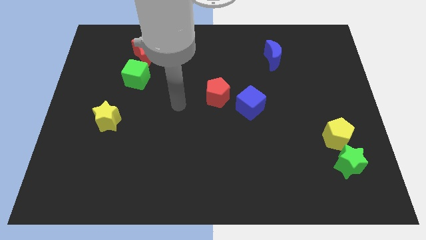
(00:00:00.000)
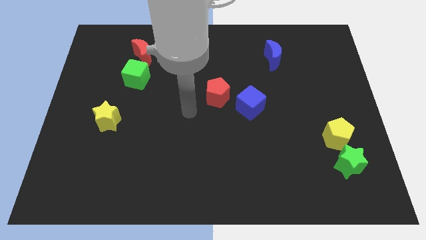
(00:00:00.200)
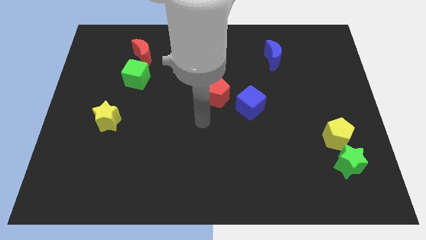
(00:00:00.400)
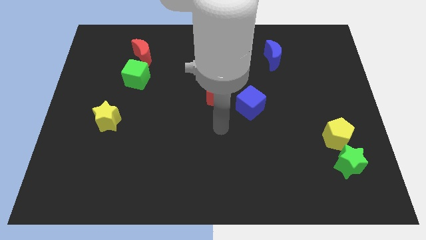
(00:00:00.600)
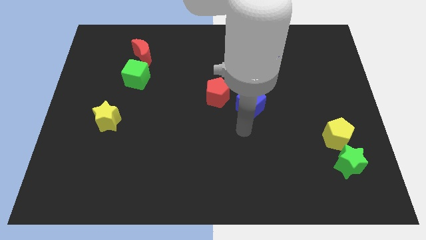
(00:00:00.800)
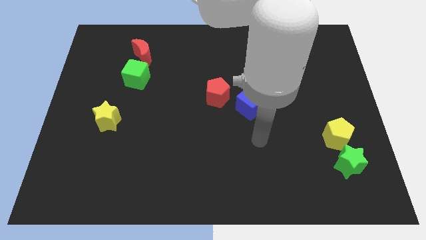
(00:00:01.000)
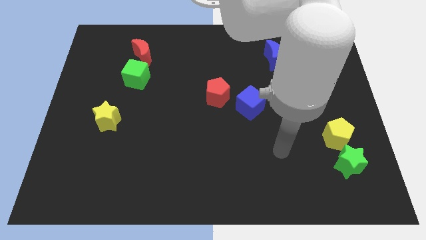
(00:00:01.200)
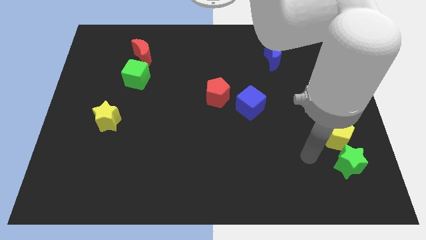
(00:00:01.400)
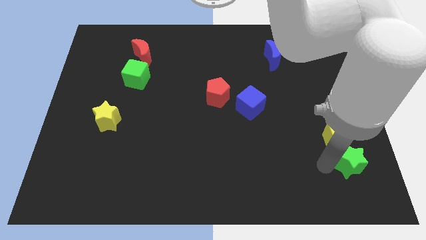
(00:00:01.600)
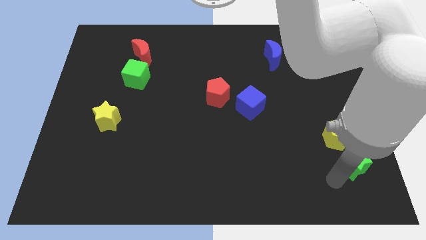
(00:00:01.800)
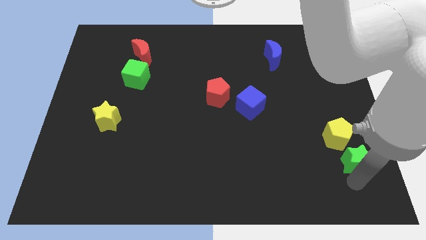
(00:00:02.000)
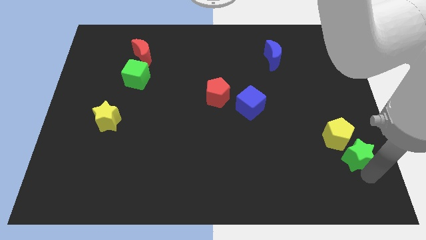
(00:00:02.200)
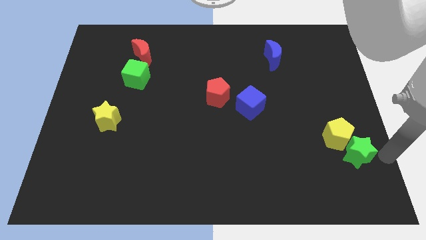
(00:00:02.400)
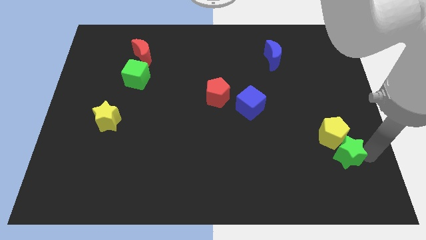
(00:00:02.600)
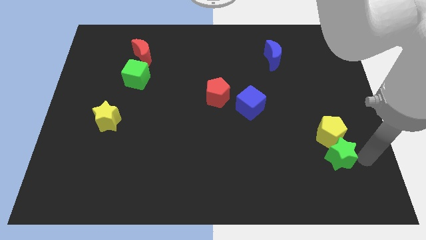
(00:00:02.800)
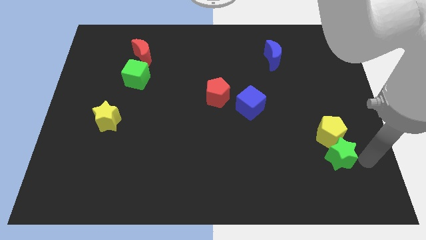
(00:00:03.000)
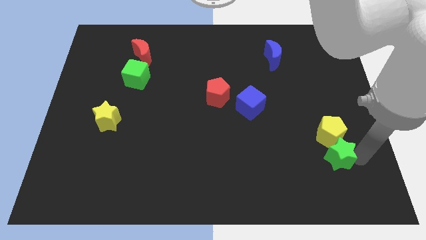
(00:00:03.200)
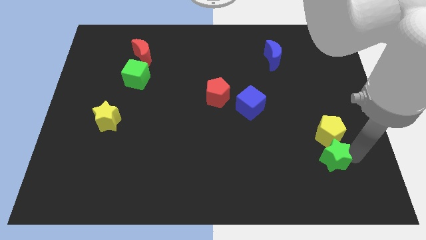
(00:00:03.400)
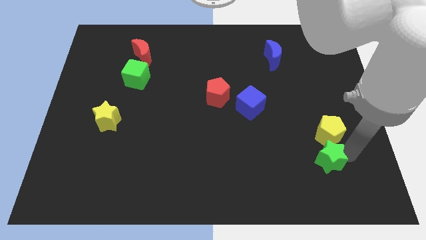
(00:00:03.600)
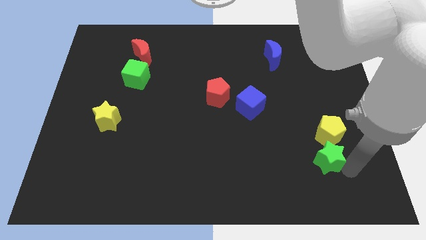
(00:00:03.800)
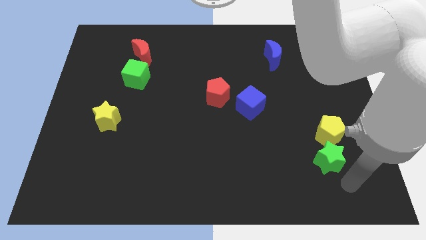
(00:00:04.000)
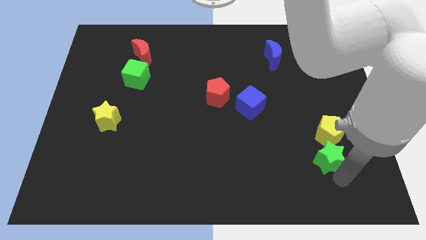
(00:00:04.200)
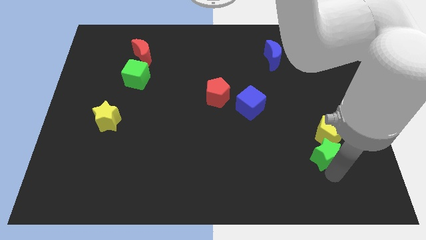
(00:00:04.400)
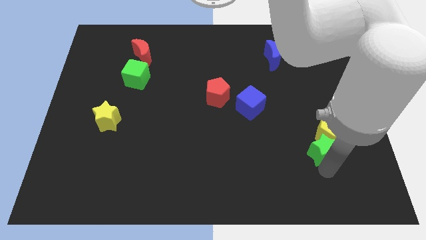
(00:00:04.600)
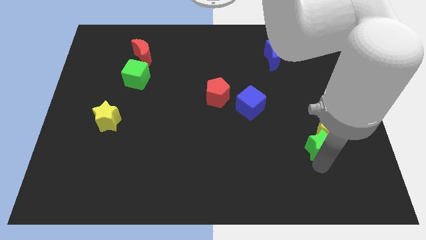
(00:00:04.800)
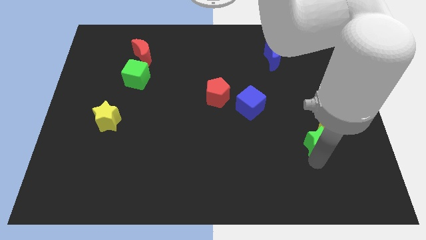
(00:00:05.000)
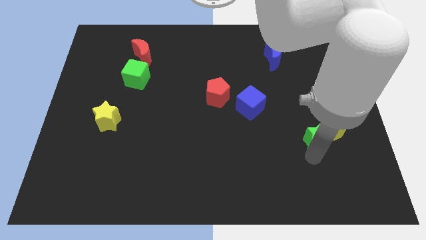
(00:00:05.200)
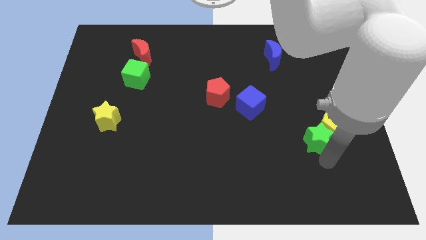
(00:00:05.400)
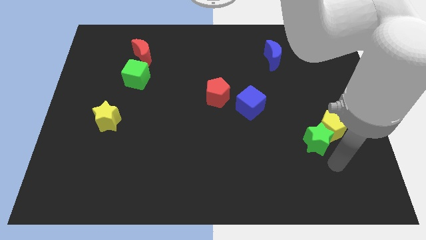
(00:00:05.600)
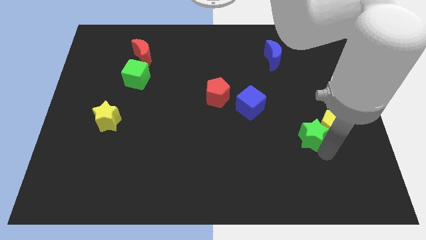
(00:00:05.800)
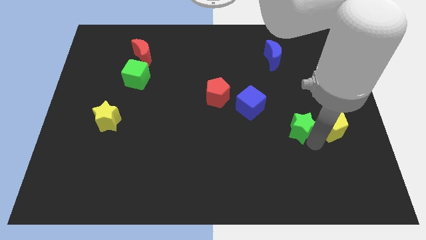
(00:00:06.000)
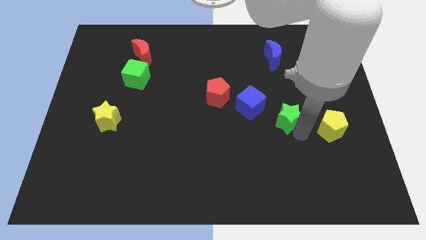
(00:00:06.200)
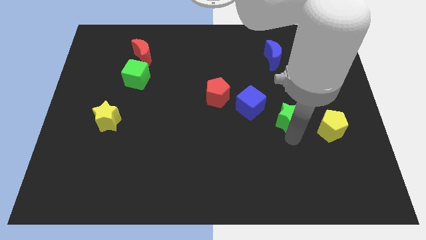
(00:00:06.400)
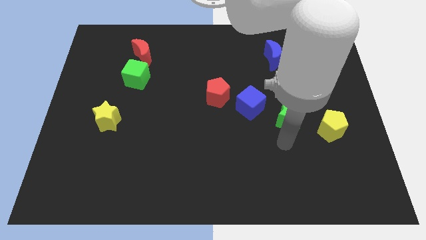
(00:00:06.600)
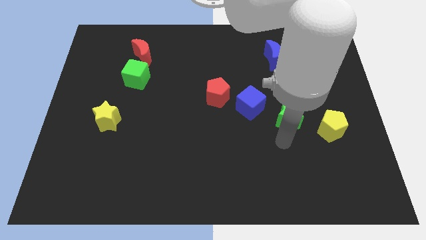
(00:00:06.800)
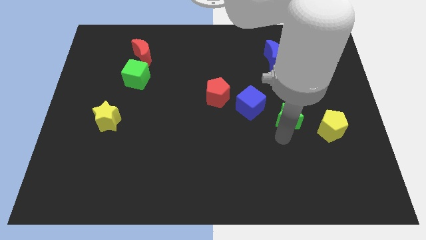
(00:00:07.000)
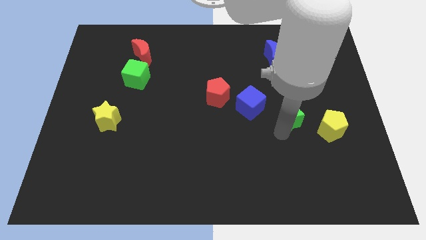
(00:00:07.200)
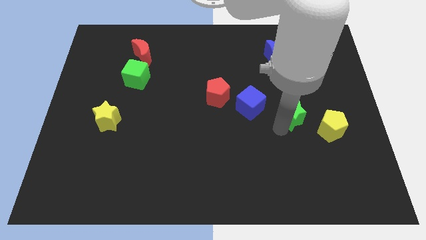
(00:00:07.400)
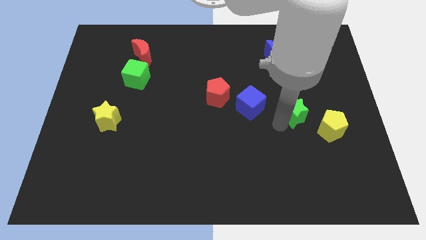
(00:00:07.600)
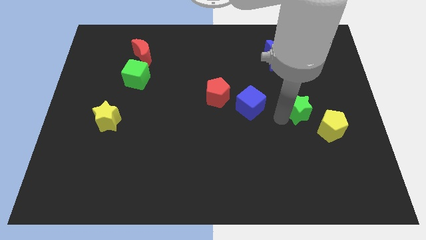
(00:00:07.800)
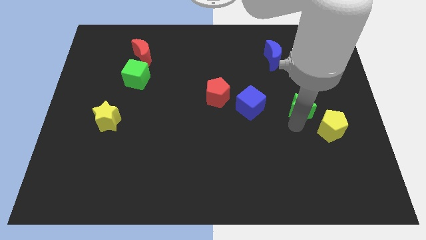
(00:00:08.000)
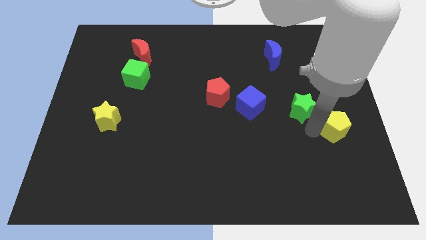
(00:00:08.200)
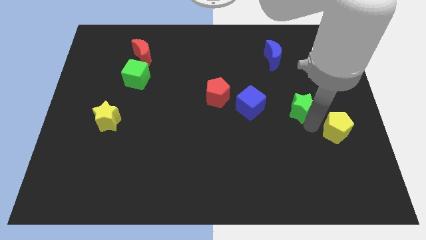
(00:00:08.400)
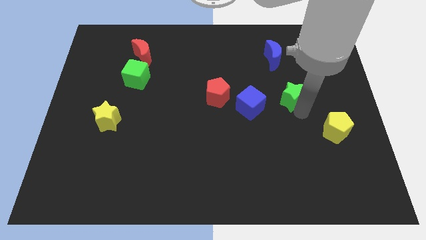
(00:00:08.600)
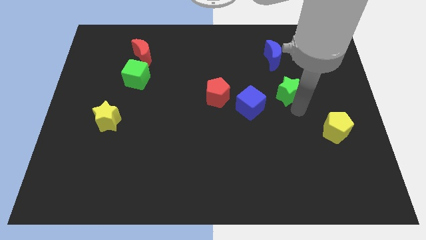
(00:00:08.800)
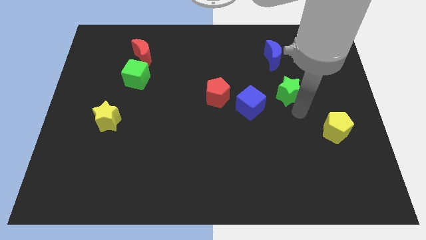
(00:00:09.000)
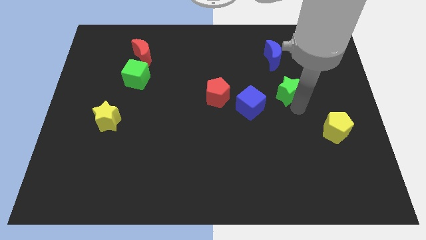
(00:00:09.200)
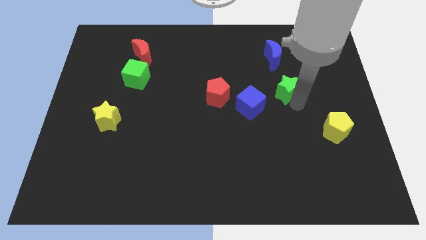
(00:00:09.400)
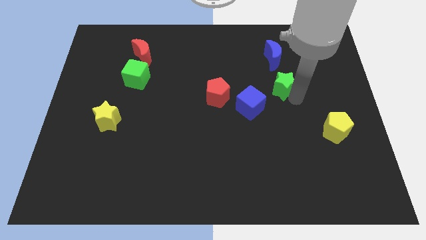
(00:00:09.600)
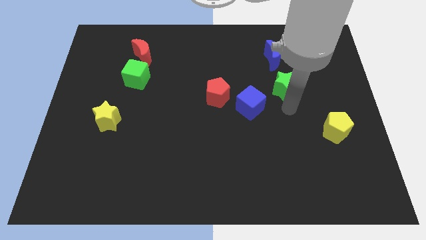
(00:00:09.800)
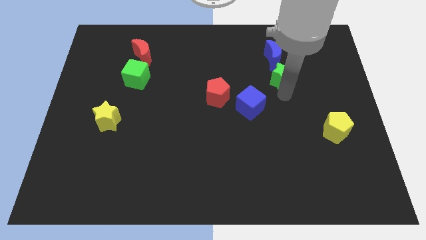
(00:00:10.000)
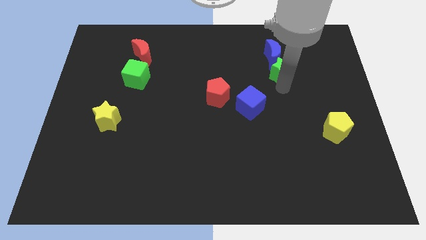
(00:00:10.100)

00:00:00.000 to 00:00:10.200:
push the green star close to the blue moon

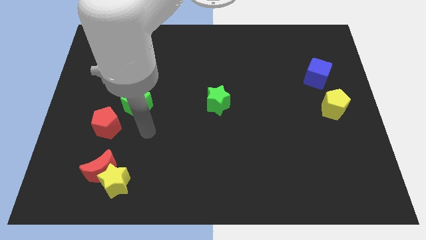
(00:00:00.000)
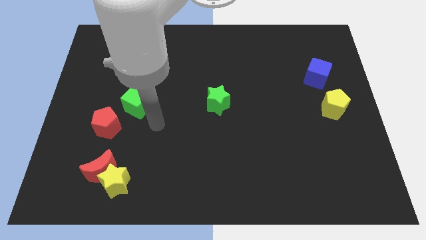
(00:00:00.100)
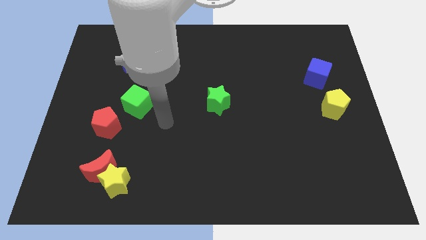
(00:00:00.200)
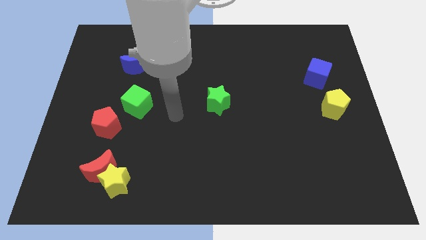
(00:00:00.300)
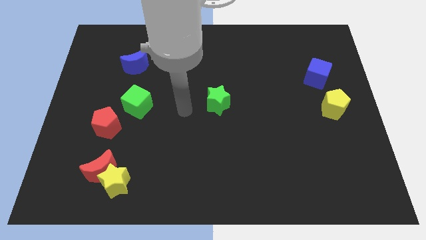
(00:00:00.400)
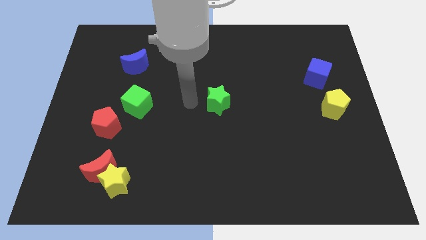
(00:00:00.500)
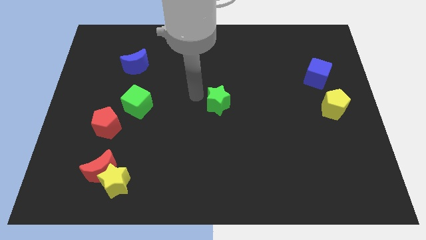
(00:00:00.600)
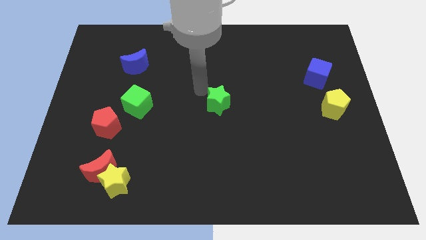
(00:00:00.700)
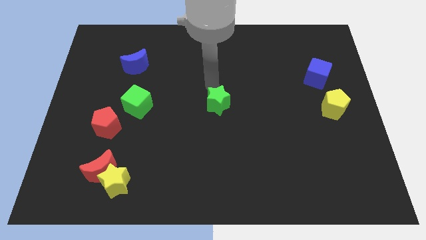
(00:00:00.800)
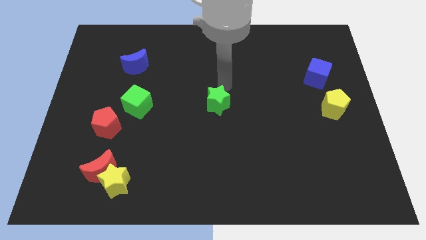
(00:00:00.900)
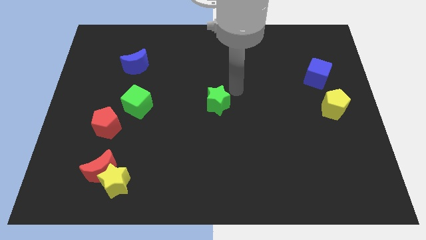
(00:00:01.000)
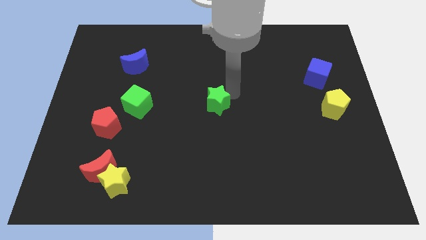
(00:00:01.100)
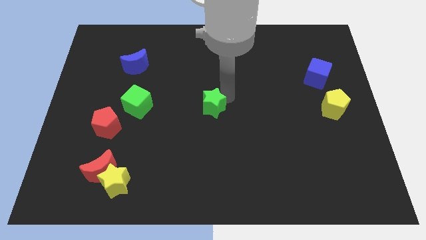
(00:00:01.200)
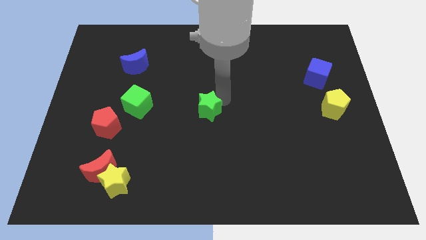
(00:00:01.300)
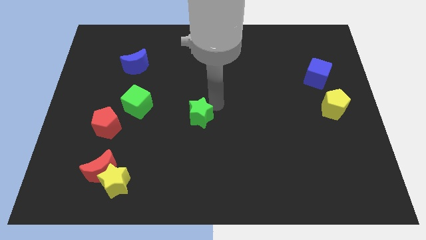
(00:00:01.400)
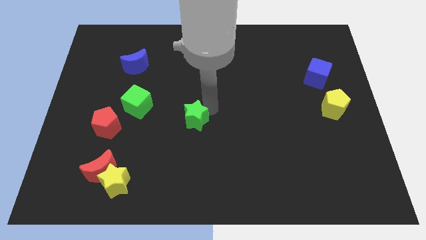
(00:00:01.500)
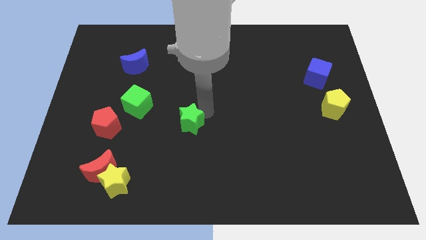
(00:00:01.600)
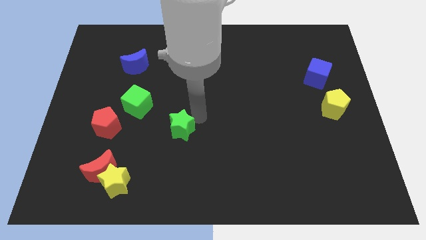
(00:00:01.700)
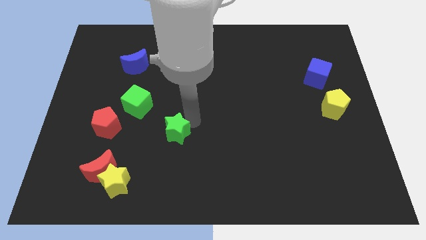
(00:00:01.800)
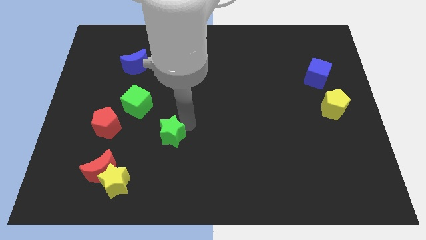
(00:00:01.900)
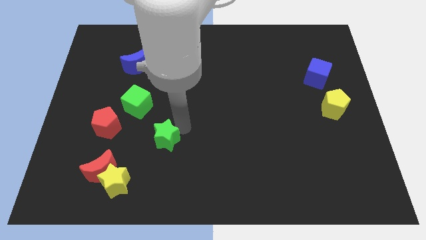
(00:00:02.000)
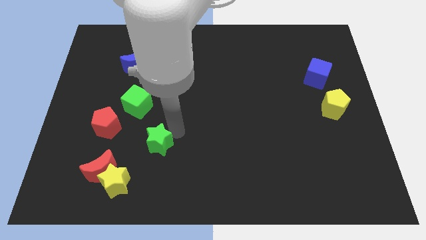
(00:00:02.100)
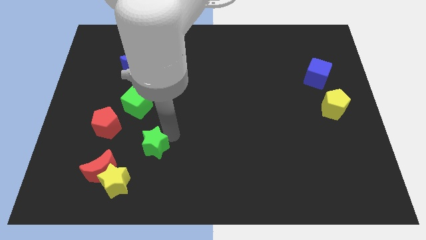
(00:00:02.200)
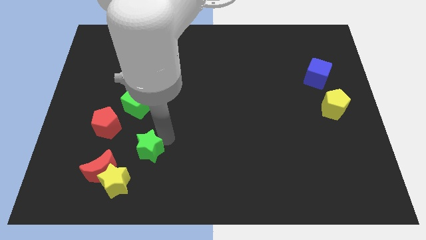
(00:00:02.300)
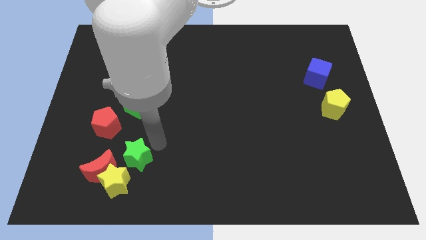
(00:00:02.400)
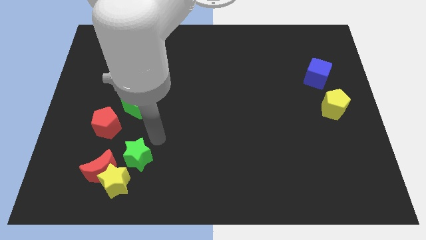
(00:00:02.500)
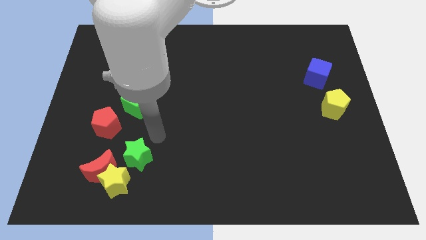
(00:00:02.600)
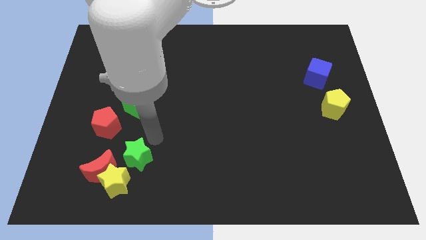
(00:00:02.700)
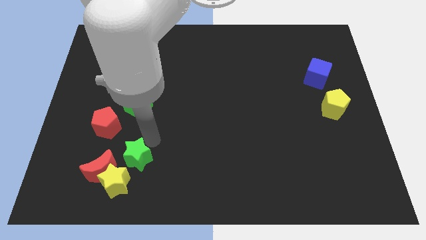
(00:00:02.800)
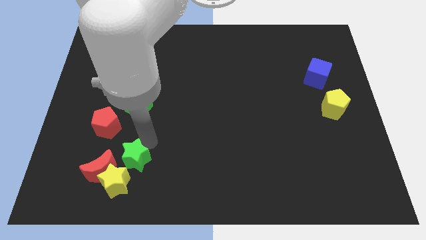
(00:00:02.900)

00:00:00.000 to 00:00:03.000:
slide the green star to the yellow star
